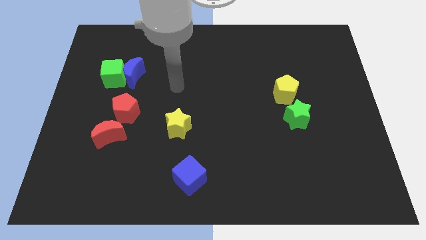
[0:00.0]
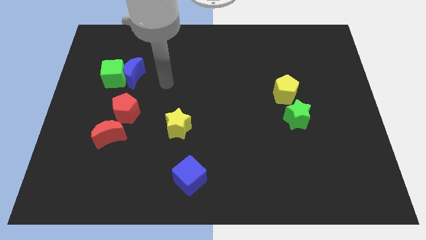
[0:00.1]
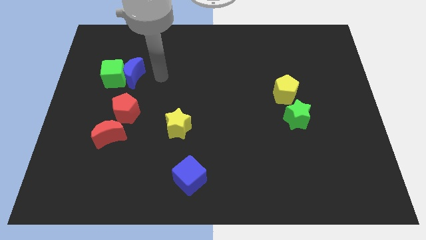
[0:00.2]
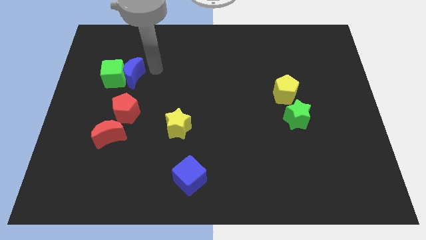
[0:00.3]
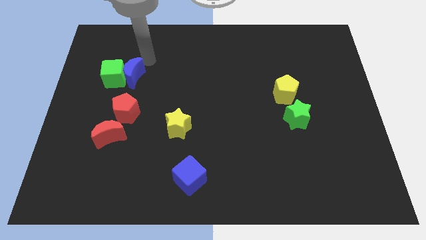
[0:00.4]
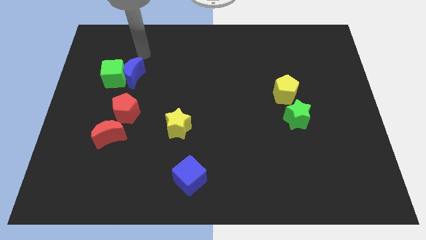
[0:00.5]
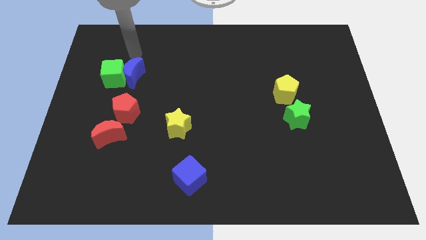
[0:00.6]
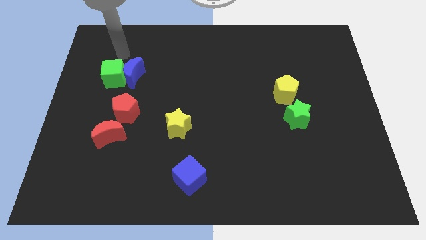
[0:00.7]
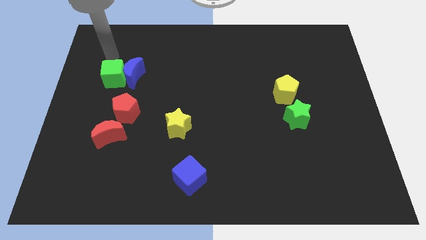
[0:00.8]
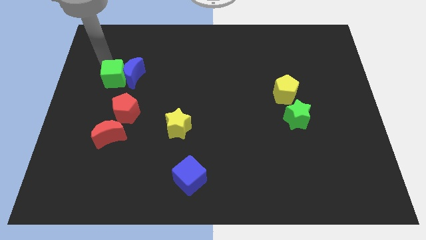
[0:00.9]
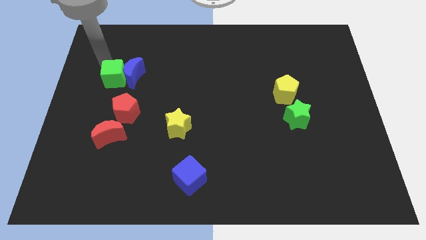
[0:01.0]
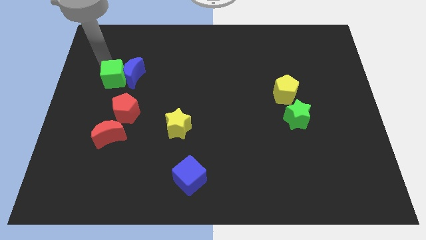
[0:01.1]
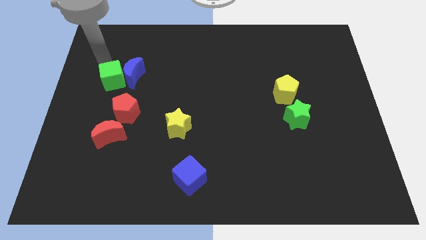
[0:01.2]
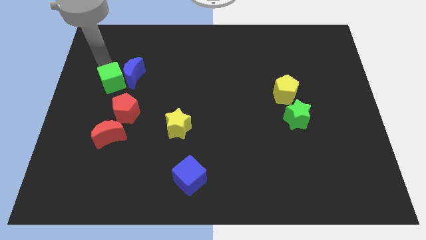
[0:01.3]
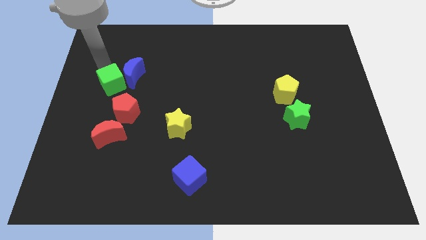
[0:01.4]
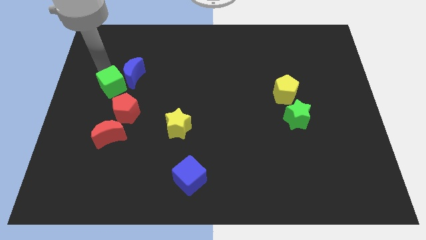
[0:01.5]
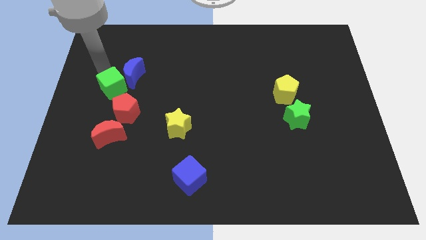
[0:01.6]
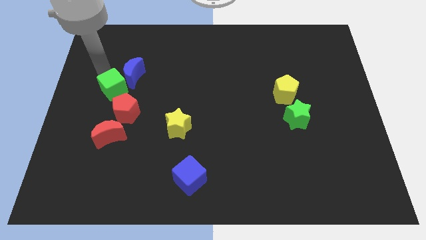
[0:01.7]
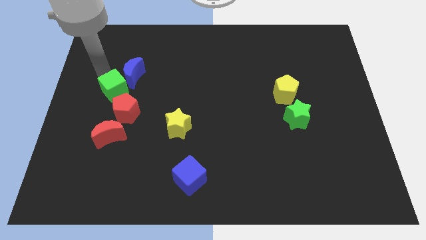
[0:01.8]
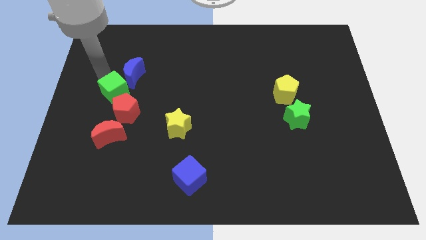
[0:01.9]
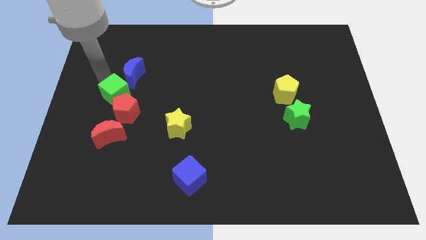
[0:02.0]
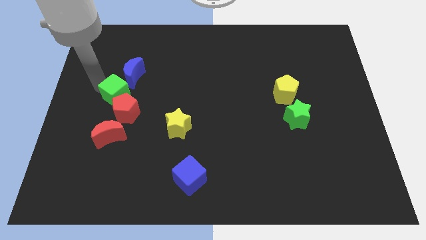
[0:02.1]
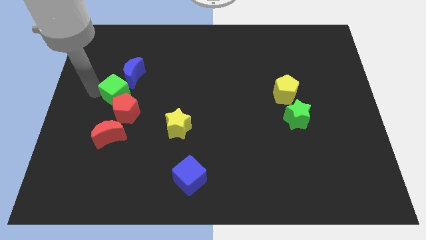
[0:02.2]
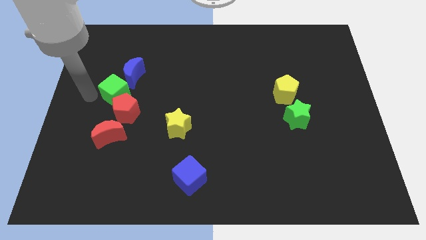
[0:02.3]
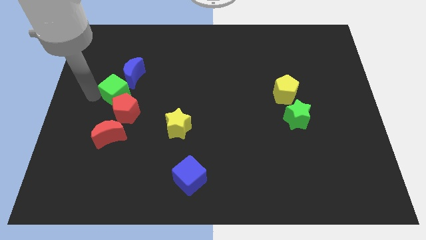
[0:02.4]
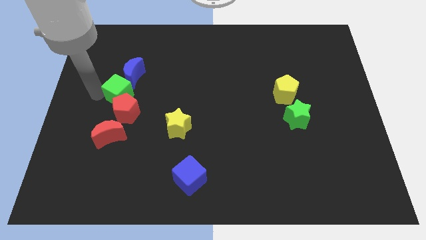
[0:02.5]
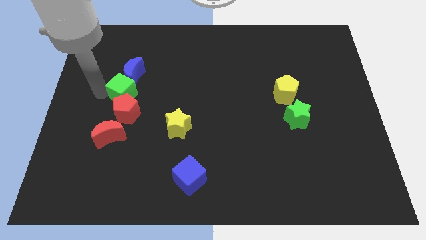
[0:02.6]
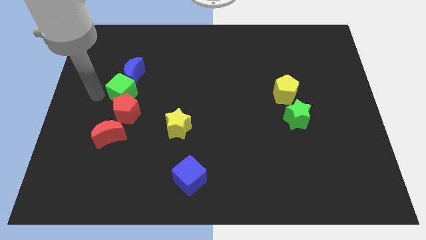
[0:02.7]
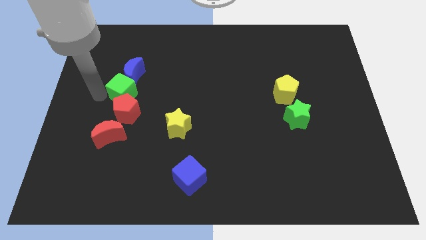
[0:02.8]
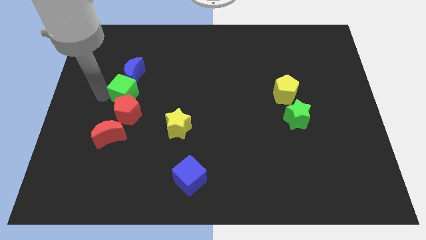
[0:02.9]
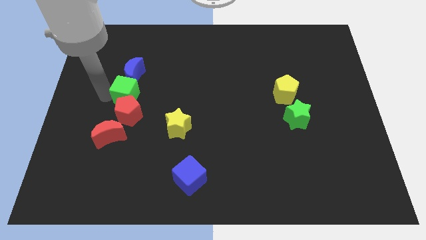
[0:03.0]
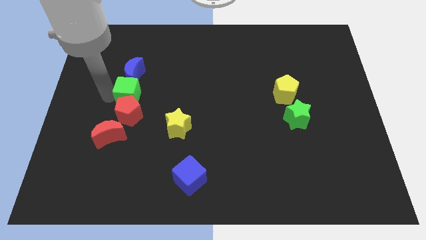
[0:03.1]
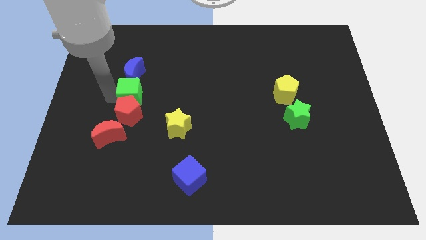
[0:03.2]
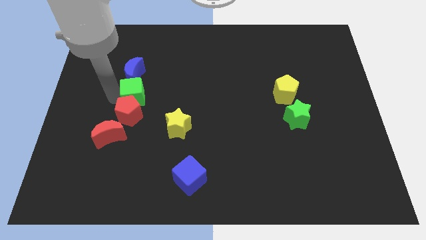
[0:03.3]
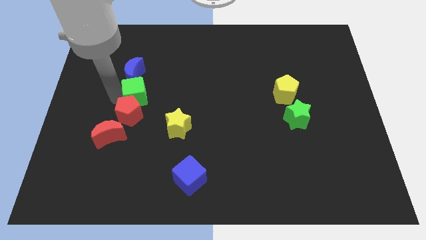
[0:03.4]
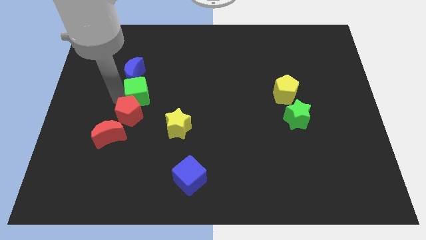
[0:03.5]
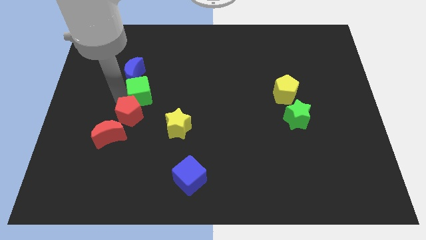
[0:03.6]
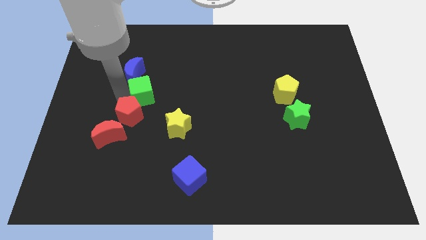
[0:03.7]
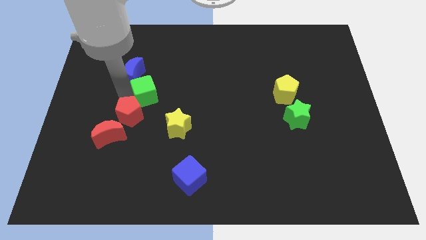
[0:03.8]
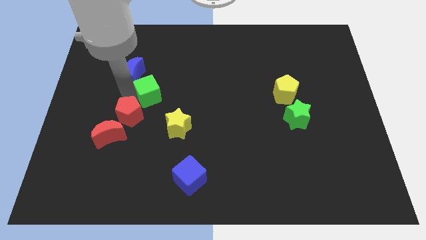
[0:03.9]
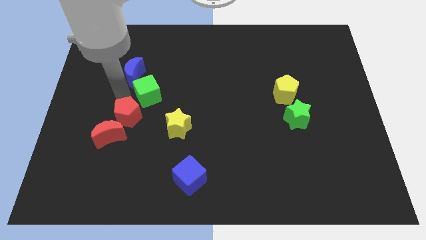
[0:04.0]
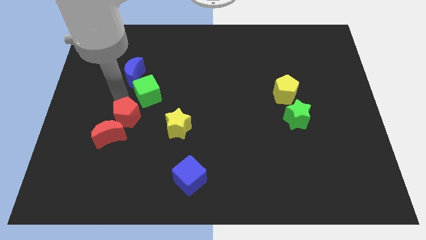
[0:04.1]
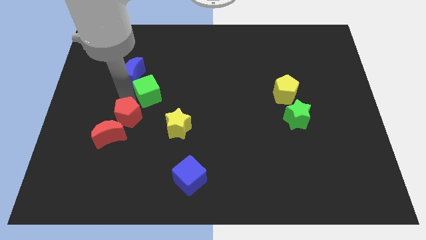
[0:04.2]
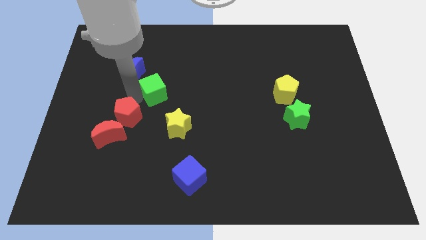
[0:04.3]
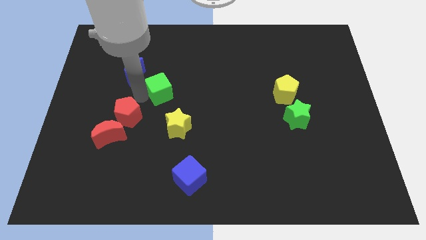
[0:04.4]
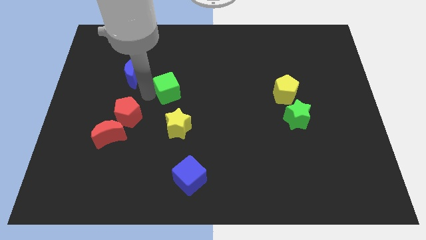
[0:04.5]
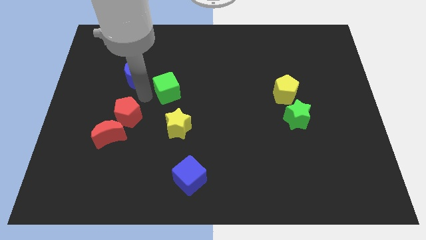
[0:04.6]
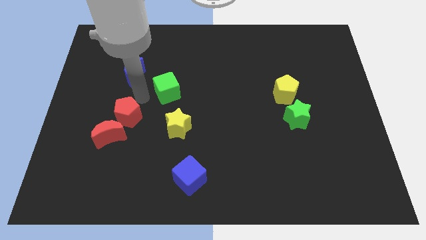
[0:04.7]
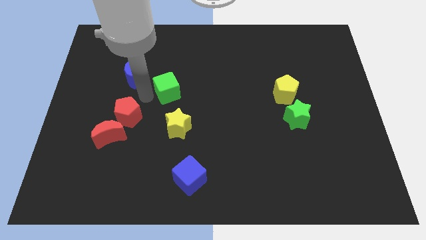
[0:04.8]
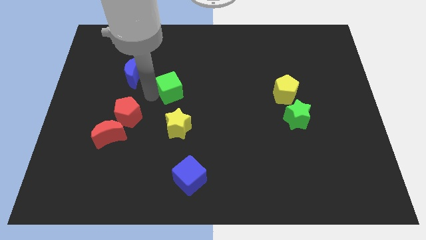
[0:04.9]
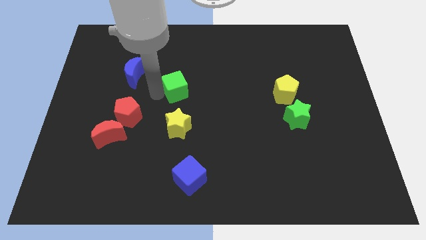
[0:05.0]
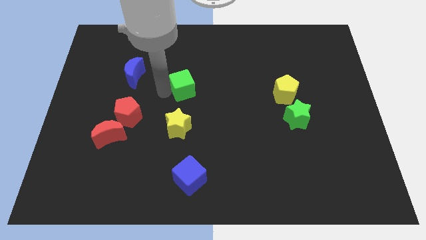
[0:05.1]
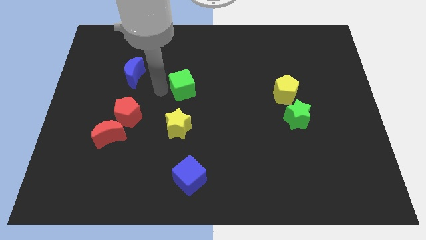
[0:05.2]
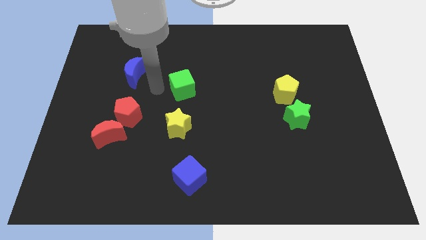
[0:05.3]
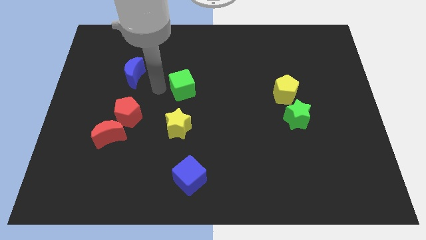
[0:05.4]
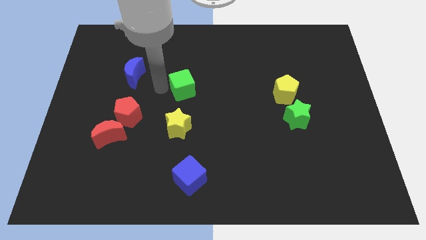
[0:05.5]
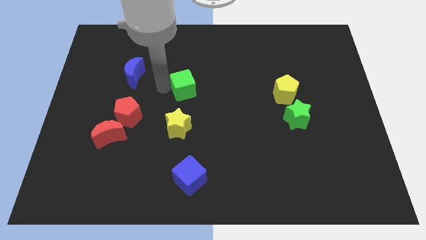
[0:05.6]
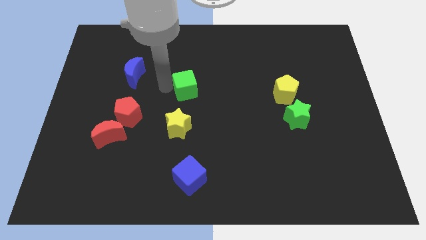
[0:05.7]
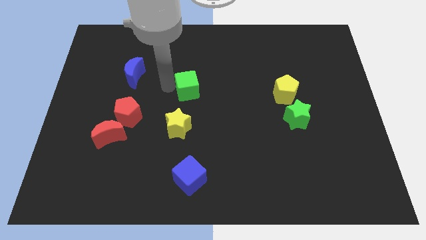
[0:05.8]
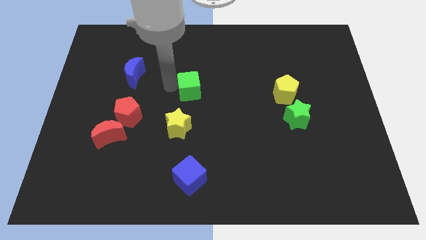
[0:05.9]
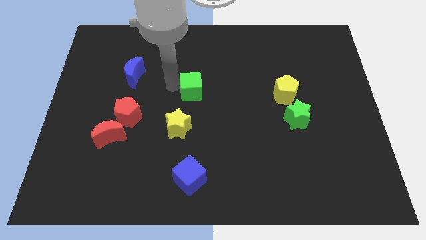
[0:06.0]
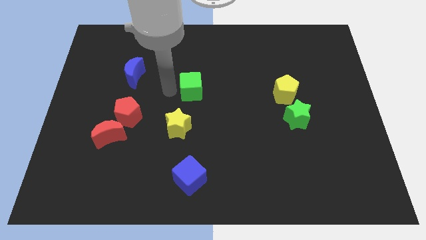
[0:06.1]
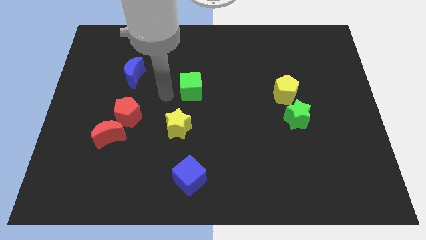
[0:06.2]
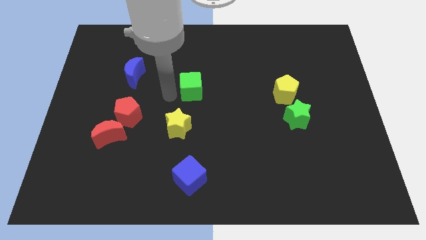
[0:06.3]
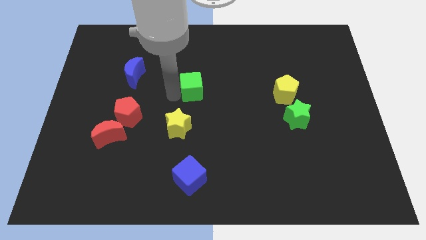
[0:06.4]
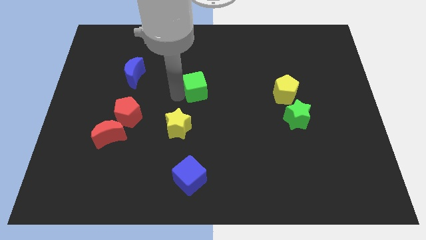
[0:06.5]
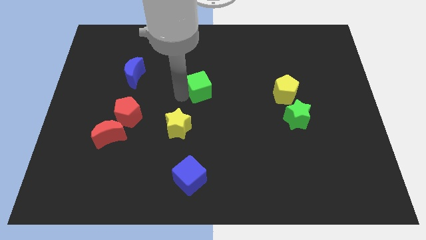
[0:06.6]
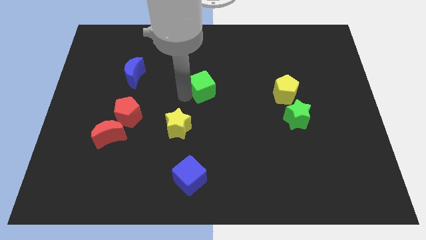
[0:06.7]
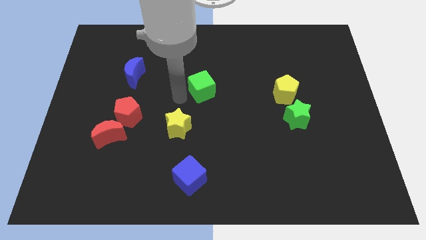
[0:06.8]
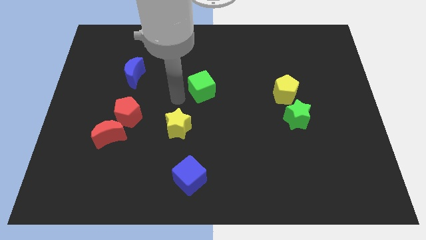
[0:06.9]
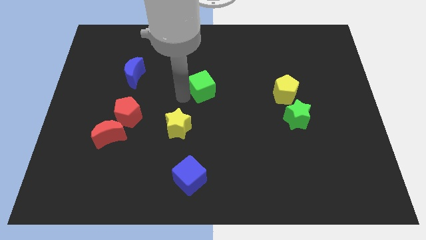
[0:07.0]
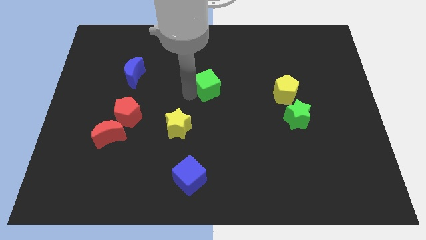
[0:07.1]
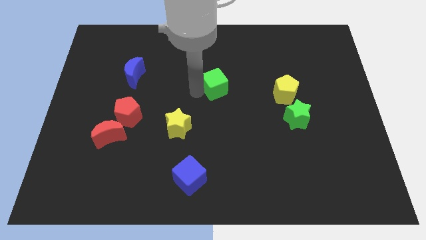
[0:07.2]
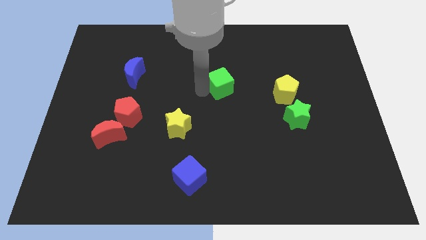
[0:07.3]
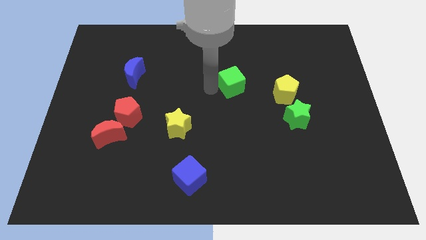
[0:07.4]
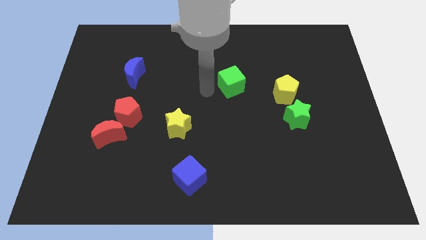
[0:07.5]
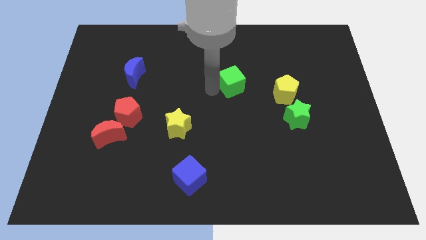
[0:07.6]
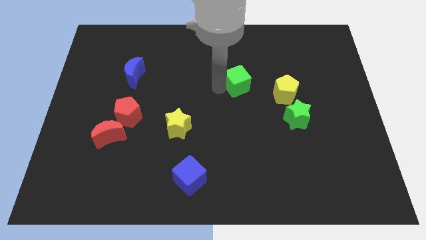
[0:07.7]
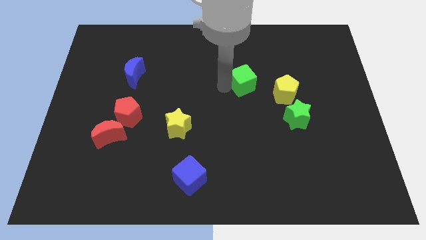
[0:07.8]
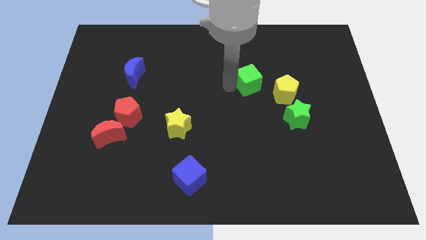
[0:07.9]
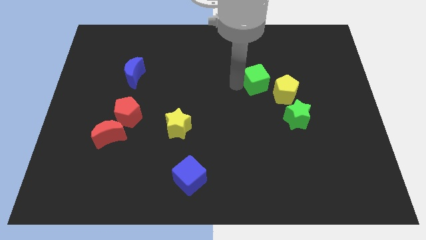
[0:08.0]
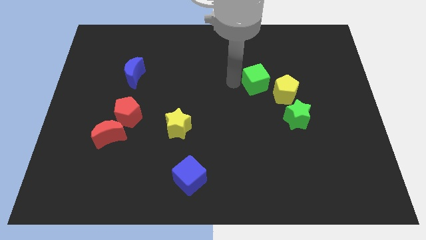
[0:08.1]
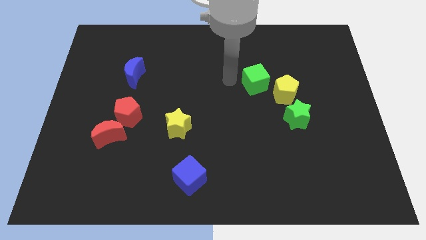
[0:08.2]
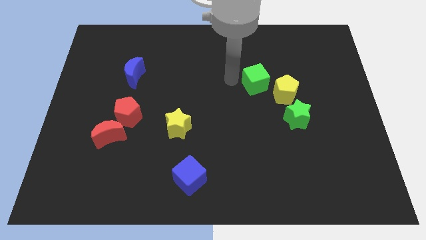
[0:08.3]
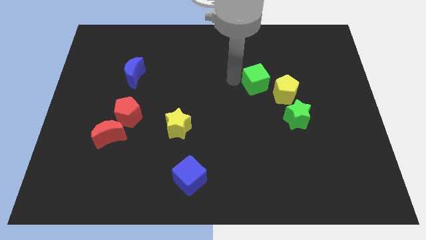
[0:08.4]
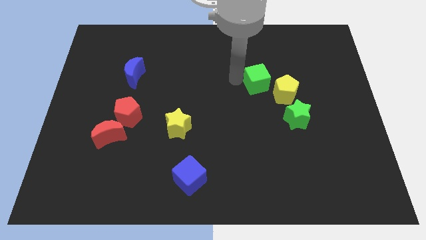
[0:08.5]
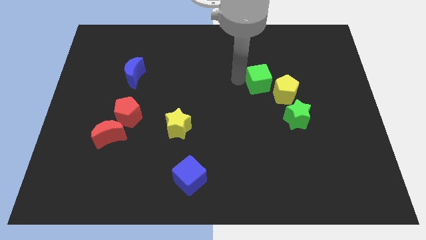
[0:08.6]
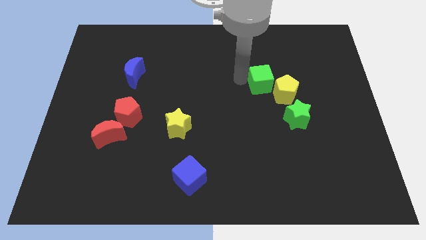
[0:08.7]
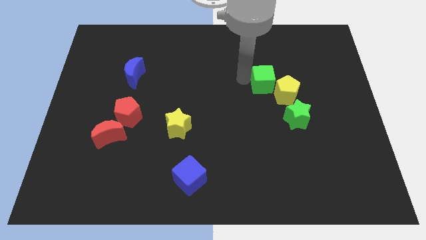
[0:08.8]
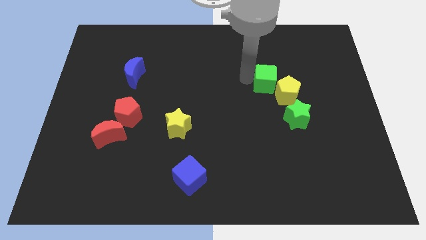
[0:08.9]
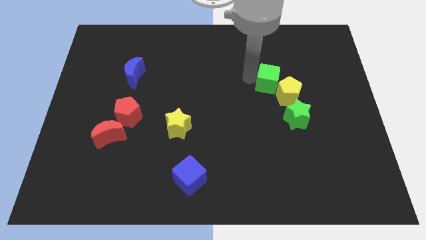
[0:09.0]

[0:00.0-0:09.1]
slide the green cube close to the yellow pentagon
